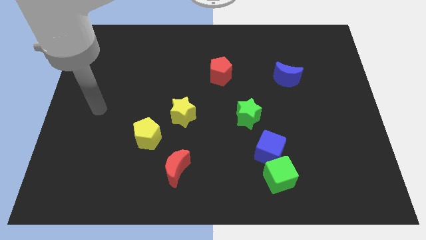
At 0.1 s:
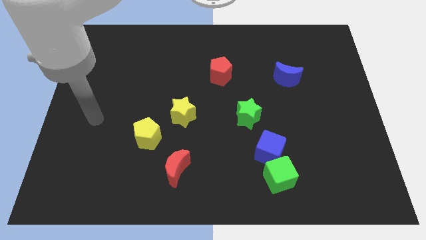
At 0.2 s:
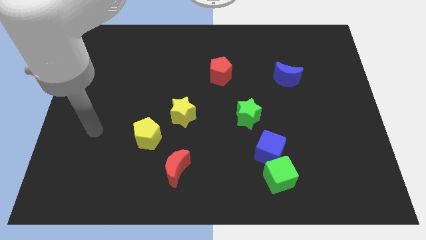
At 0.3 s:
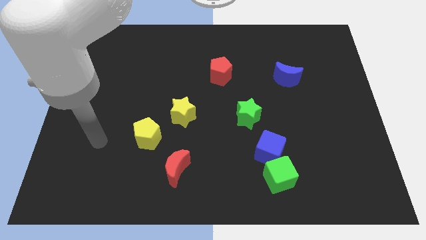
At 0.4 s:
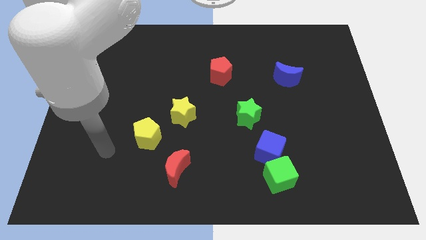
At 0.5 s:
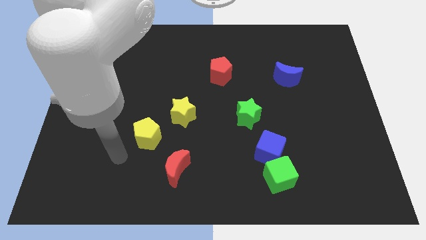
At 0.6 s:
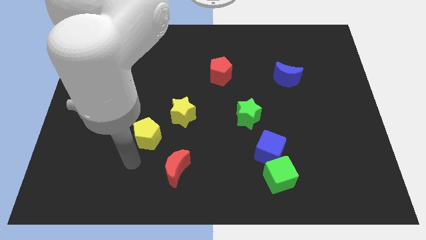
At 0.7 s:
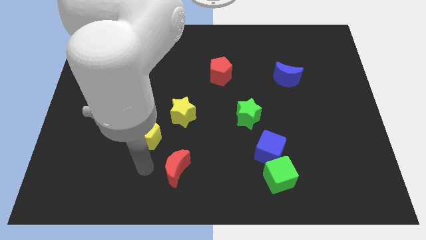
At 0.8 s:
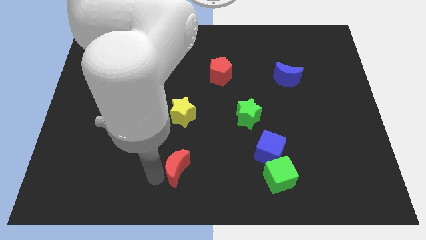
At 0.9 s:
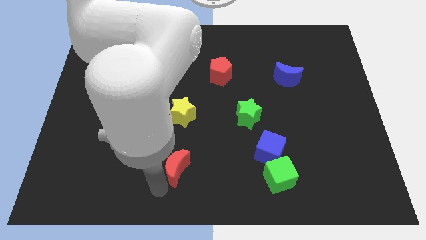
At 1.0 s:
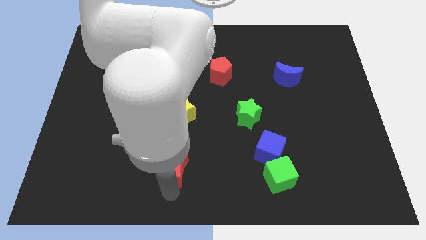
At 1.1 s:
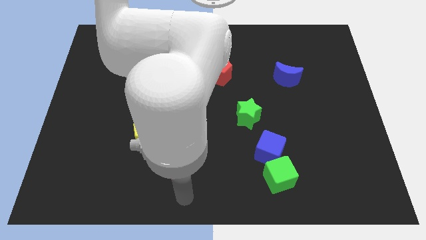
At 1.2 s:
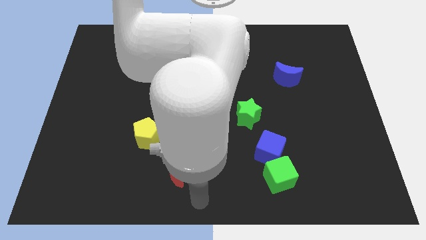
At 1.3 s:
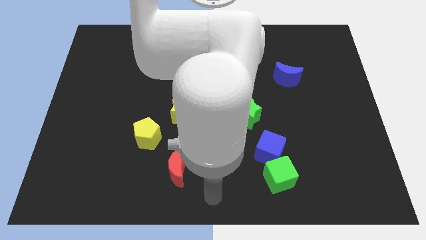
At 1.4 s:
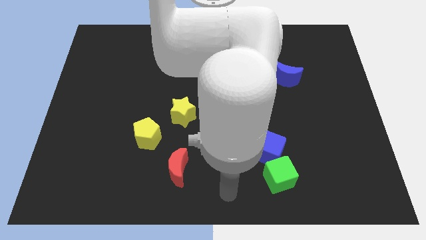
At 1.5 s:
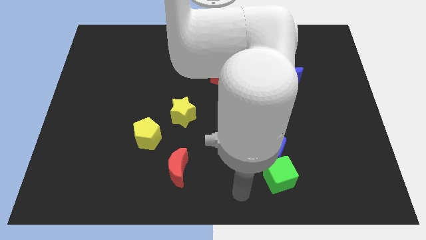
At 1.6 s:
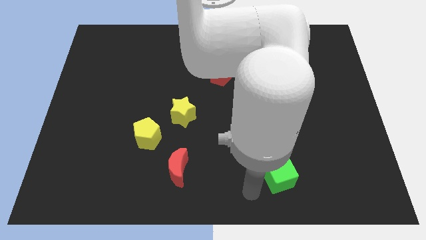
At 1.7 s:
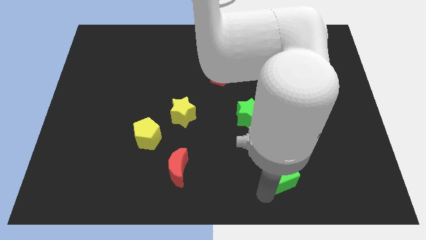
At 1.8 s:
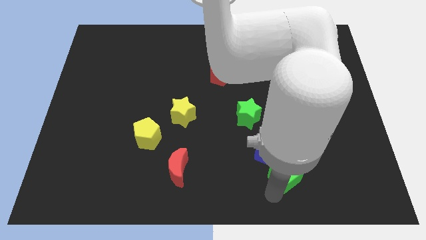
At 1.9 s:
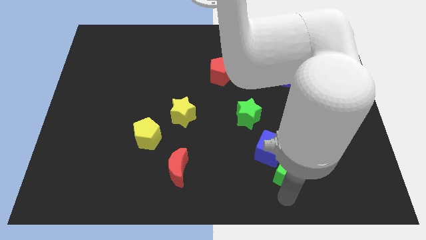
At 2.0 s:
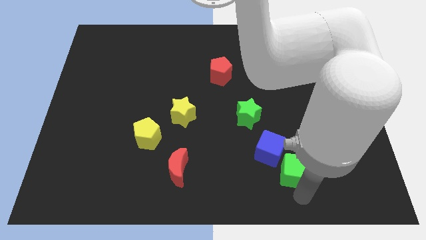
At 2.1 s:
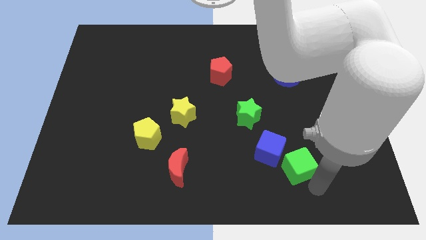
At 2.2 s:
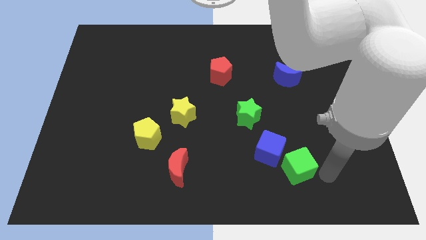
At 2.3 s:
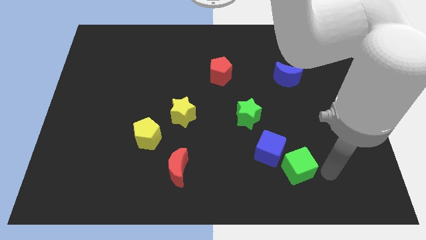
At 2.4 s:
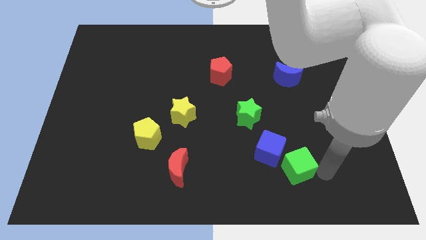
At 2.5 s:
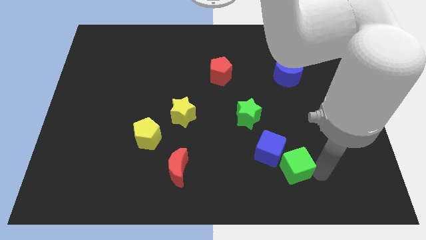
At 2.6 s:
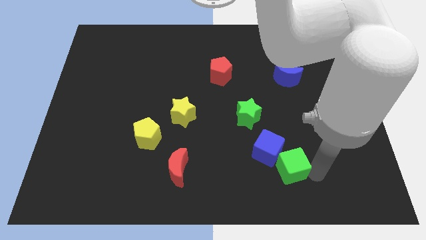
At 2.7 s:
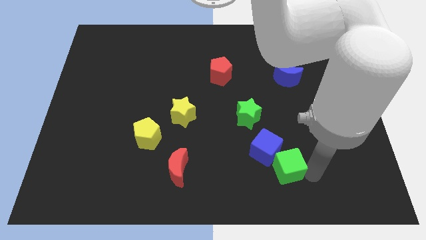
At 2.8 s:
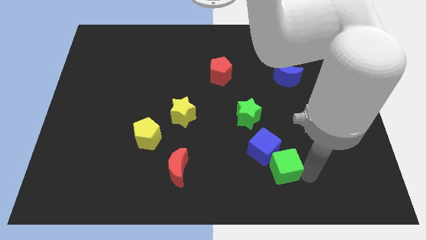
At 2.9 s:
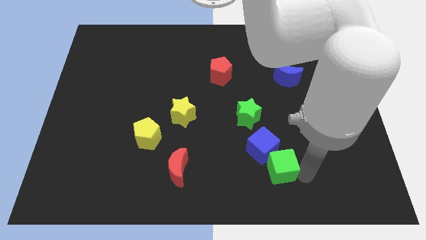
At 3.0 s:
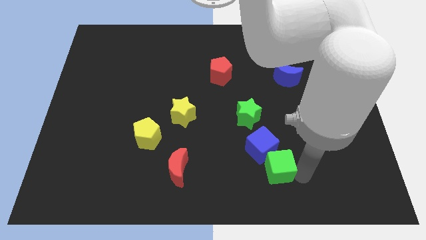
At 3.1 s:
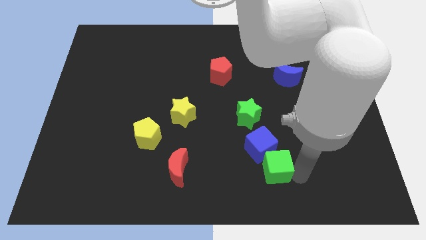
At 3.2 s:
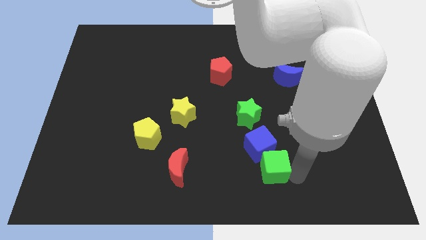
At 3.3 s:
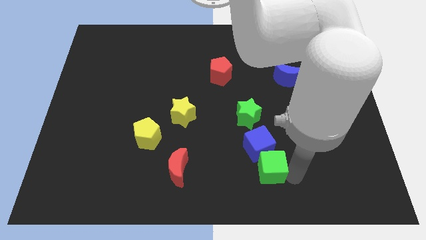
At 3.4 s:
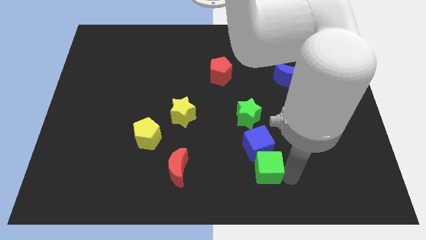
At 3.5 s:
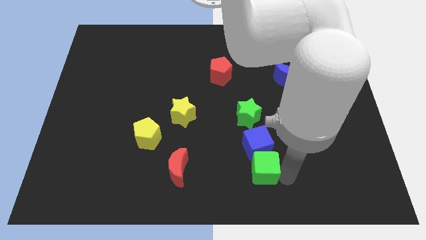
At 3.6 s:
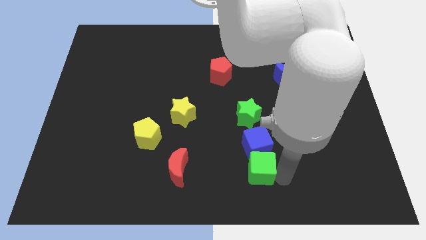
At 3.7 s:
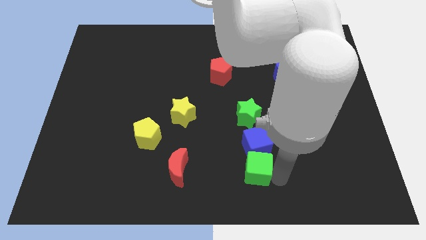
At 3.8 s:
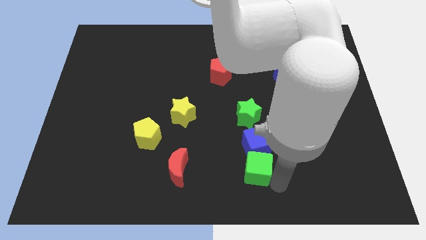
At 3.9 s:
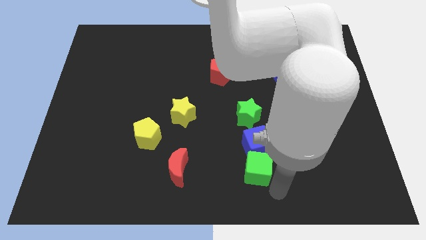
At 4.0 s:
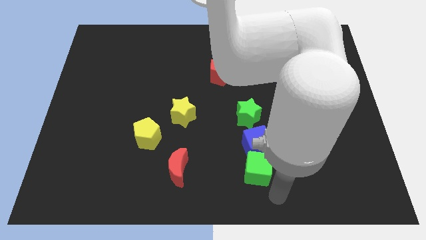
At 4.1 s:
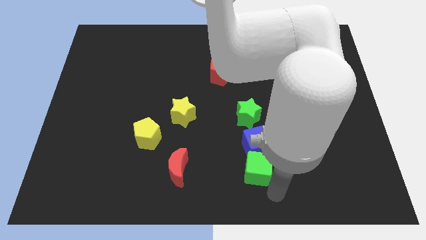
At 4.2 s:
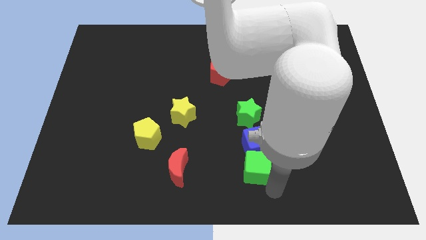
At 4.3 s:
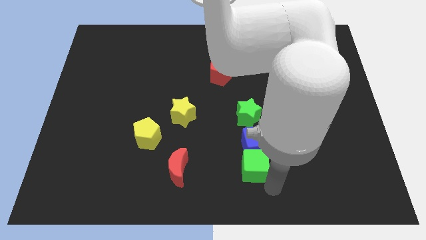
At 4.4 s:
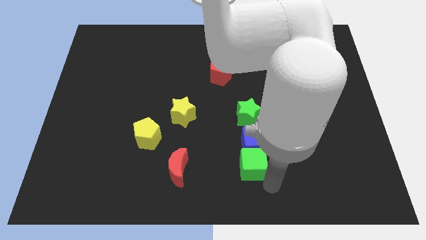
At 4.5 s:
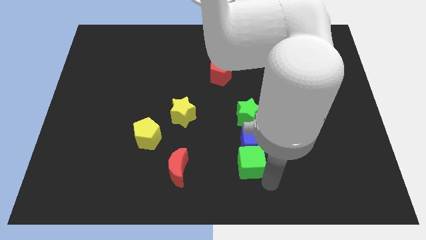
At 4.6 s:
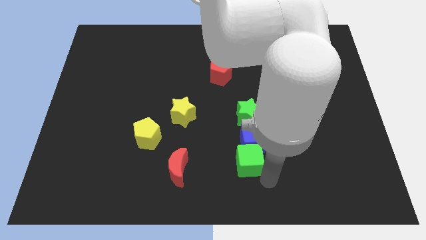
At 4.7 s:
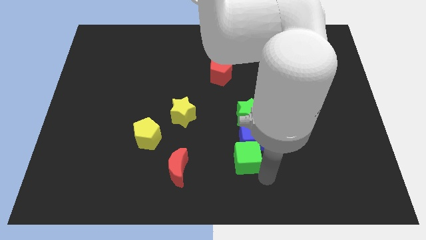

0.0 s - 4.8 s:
slide the green cube upwards and then to the left a bit

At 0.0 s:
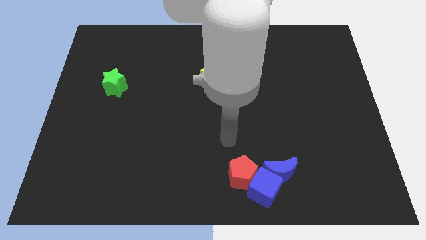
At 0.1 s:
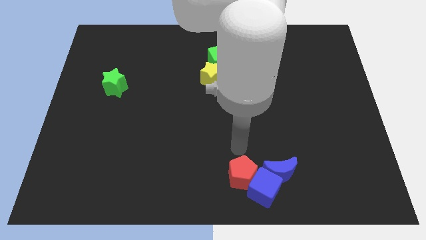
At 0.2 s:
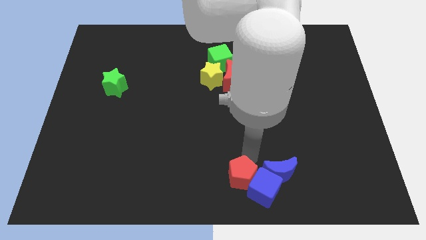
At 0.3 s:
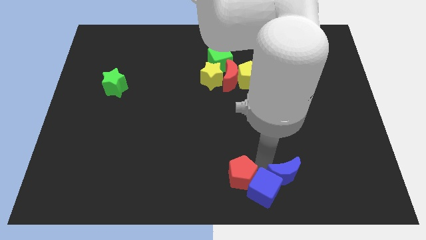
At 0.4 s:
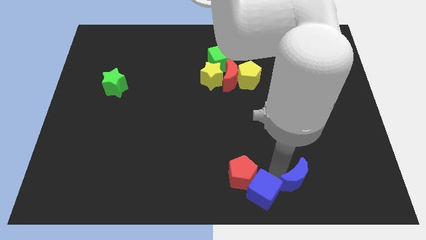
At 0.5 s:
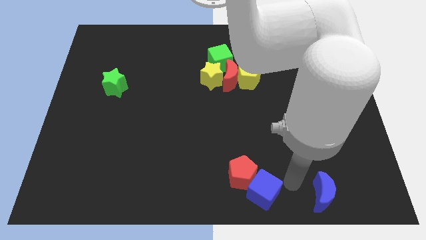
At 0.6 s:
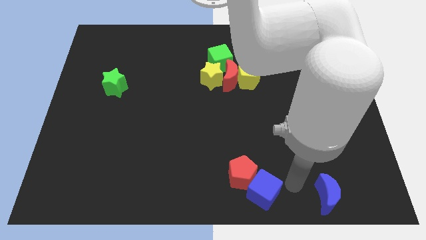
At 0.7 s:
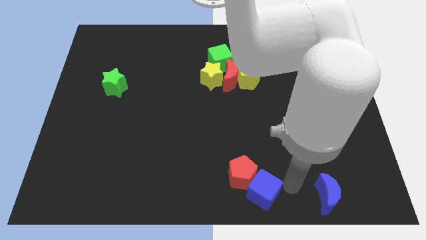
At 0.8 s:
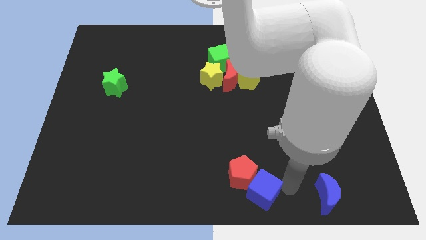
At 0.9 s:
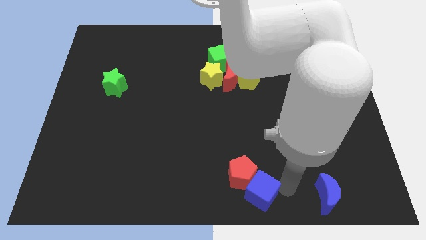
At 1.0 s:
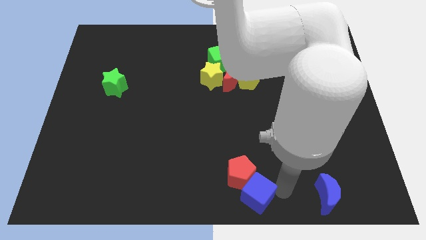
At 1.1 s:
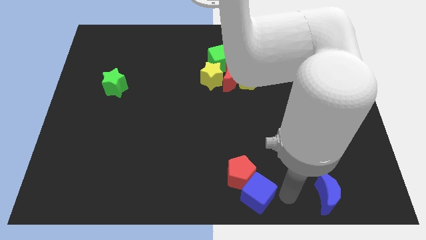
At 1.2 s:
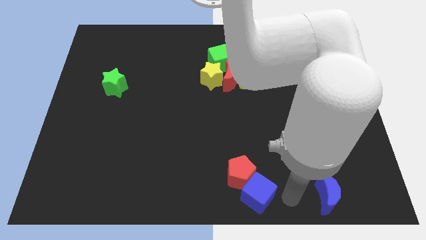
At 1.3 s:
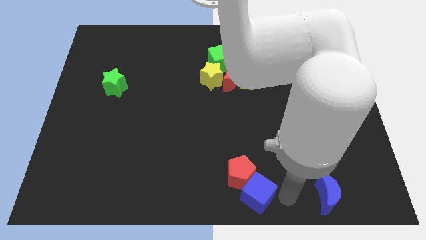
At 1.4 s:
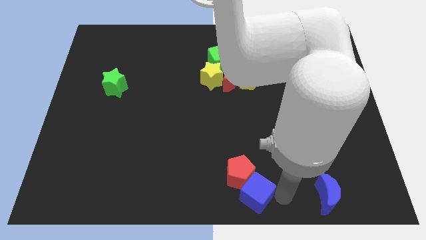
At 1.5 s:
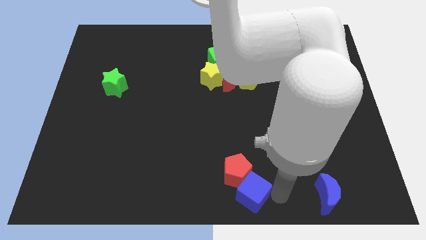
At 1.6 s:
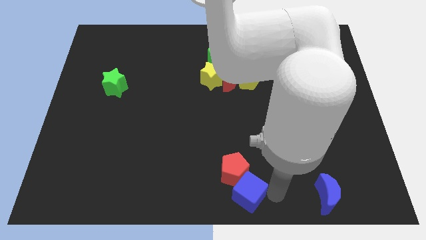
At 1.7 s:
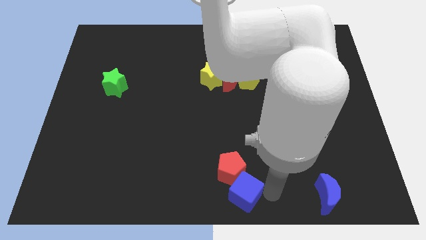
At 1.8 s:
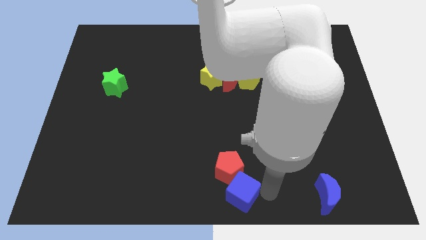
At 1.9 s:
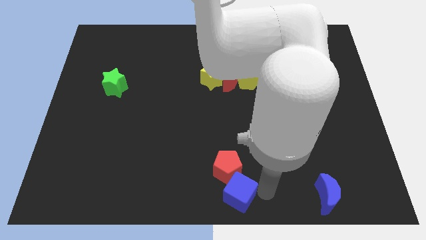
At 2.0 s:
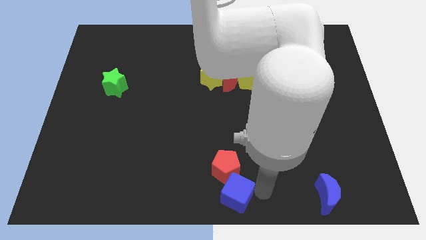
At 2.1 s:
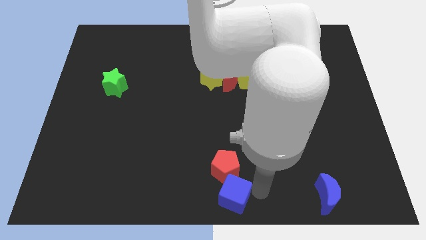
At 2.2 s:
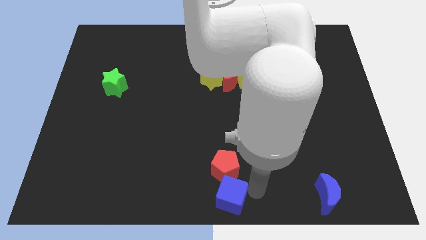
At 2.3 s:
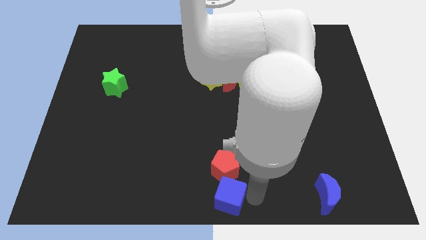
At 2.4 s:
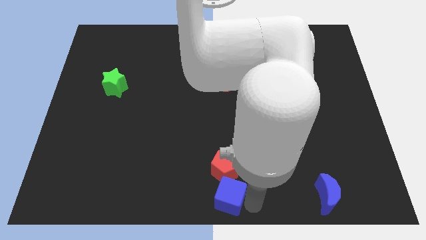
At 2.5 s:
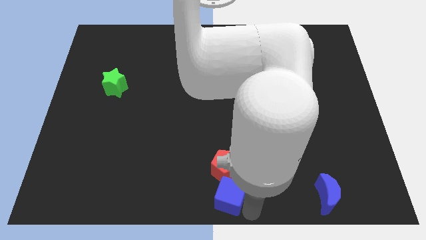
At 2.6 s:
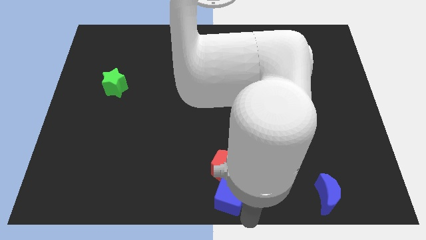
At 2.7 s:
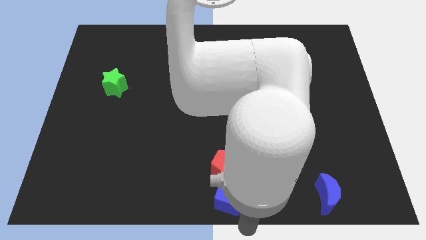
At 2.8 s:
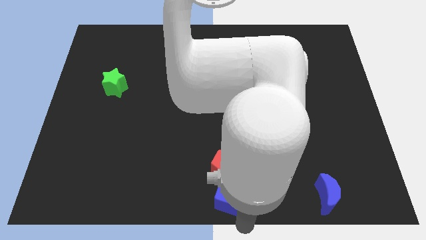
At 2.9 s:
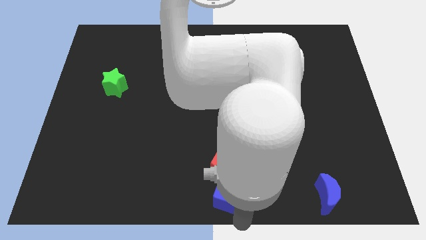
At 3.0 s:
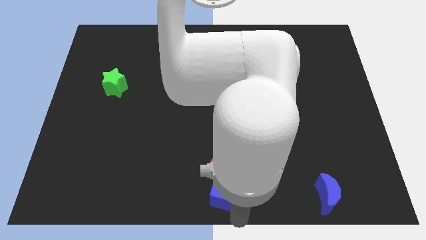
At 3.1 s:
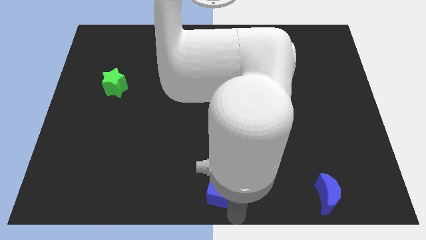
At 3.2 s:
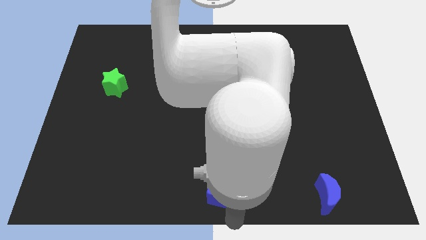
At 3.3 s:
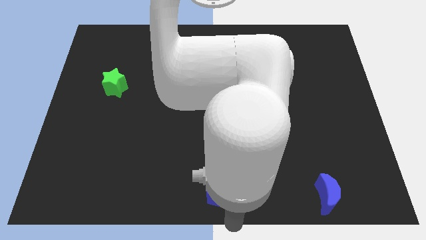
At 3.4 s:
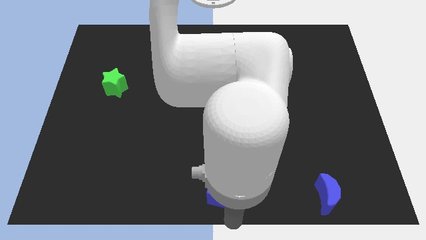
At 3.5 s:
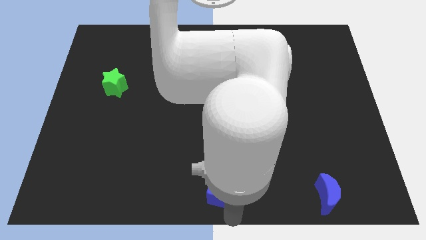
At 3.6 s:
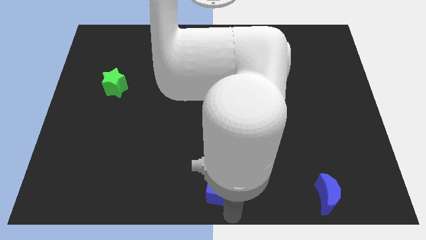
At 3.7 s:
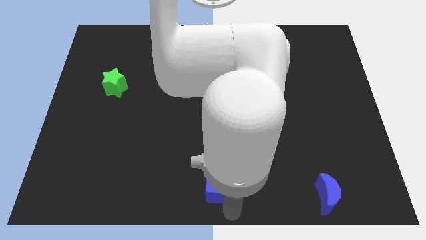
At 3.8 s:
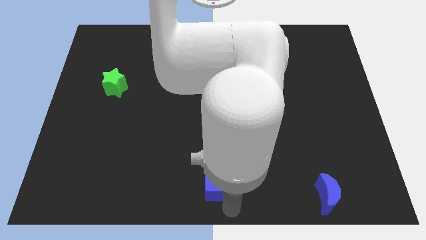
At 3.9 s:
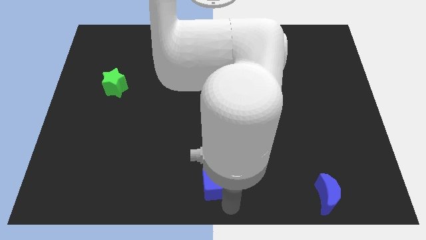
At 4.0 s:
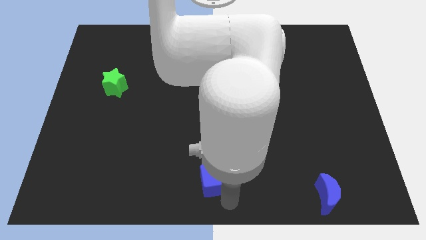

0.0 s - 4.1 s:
slightly move the blue cube up and to the left diagonally
